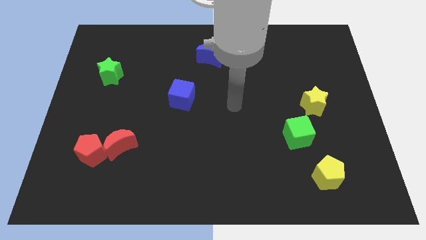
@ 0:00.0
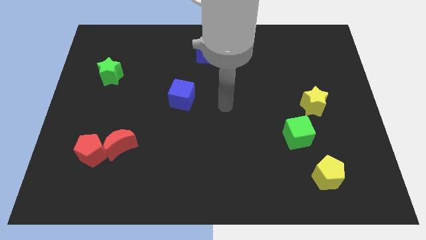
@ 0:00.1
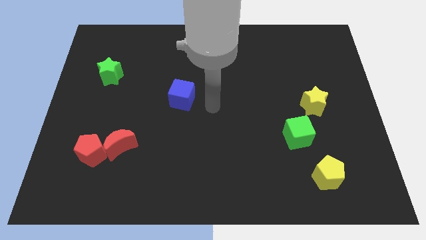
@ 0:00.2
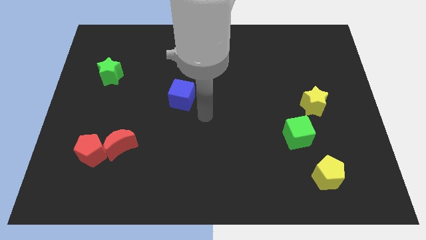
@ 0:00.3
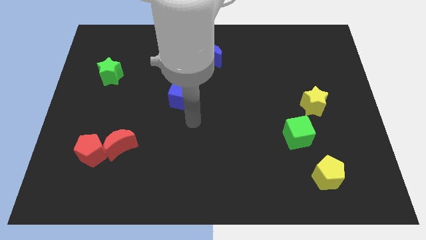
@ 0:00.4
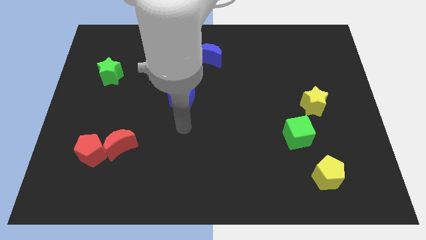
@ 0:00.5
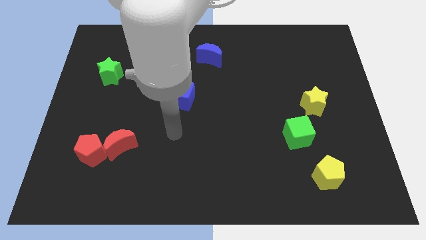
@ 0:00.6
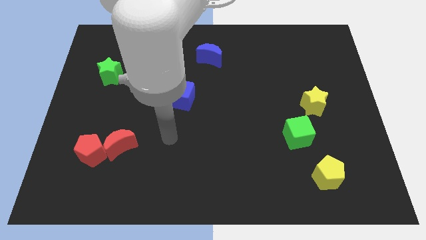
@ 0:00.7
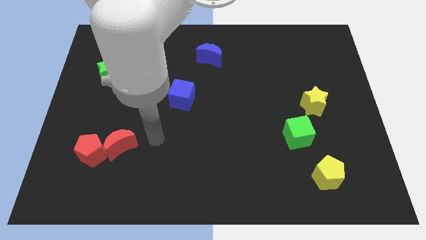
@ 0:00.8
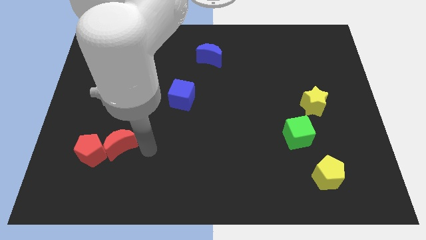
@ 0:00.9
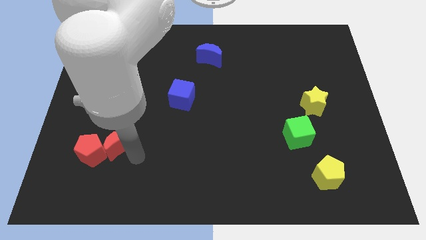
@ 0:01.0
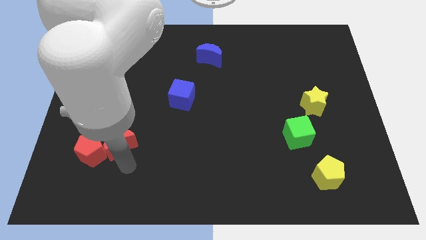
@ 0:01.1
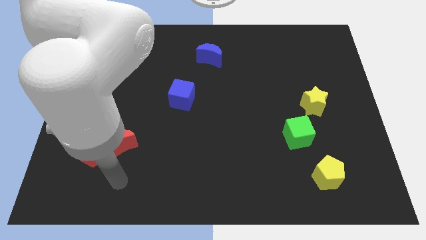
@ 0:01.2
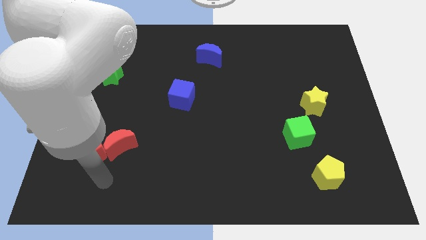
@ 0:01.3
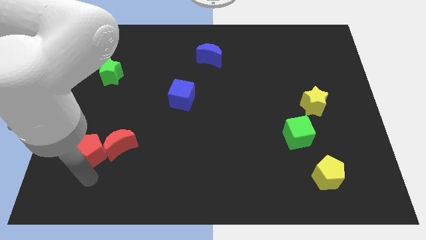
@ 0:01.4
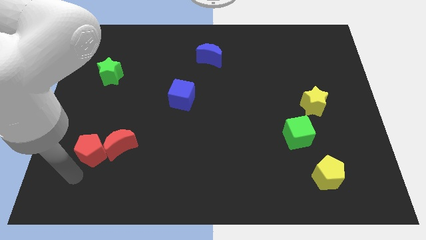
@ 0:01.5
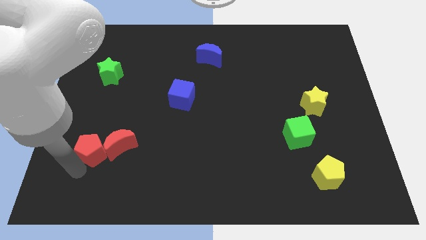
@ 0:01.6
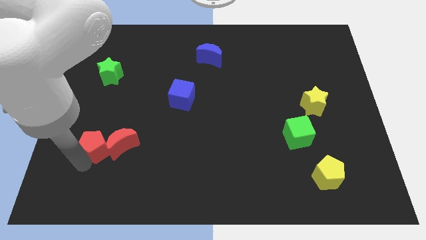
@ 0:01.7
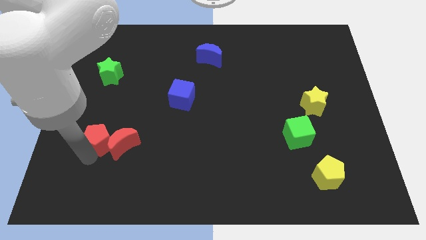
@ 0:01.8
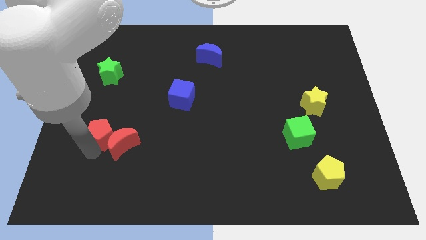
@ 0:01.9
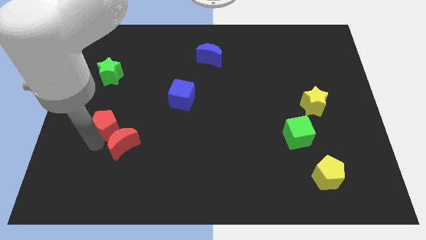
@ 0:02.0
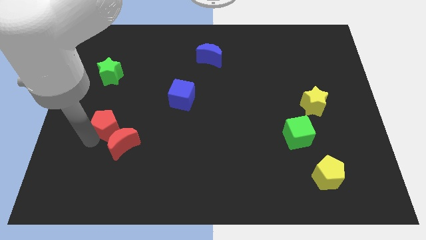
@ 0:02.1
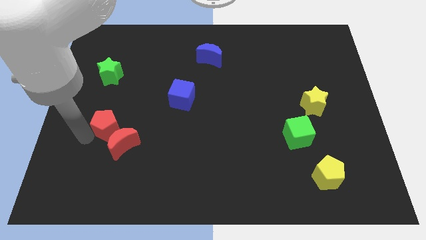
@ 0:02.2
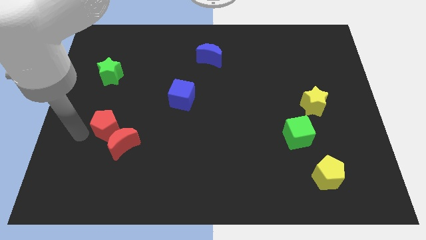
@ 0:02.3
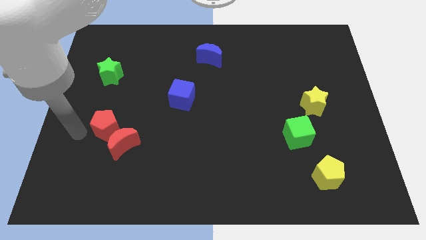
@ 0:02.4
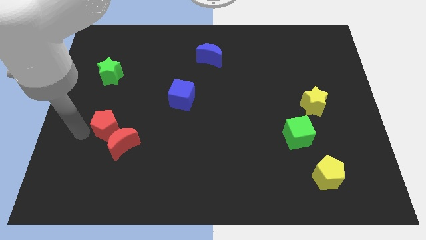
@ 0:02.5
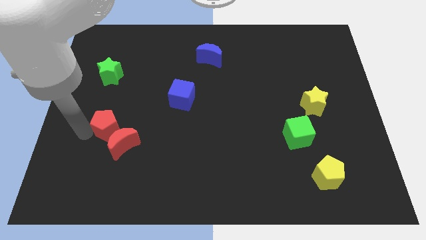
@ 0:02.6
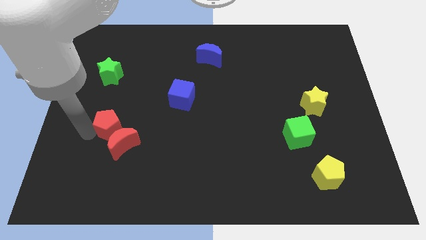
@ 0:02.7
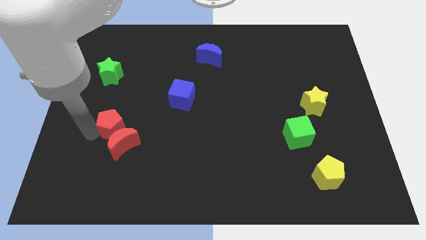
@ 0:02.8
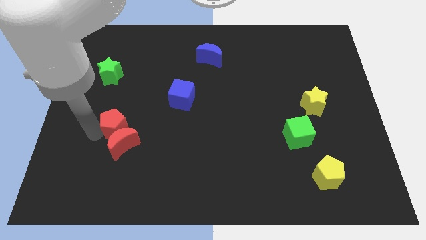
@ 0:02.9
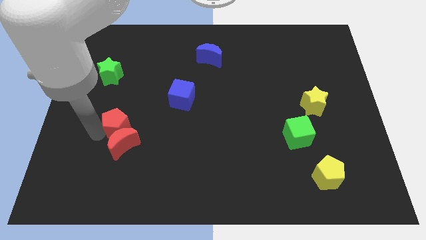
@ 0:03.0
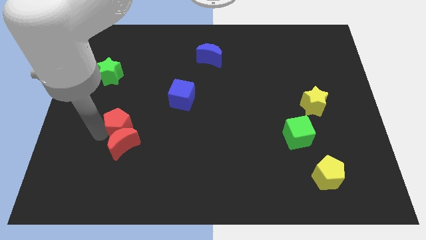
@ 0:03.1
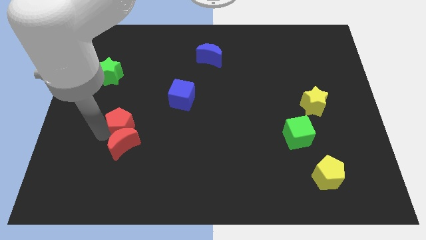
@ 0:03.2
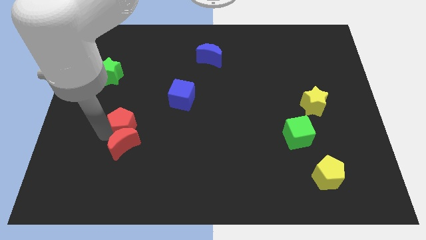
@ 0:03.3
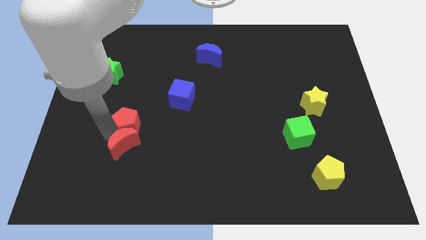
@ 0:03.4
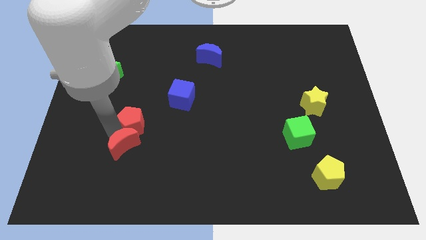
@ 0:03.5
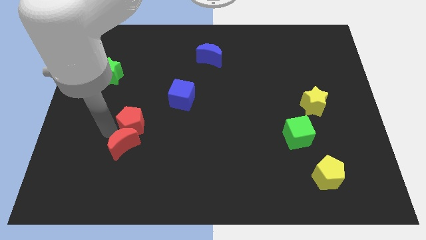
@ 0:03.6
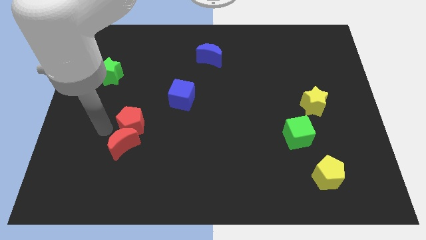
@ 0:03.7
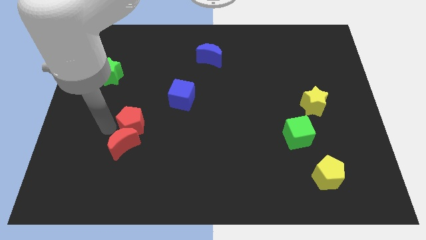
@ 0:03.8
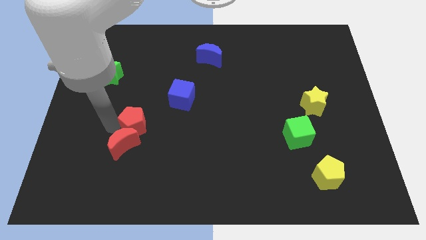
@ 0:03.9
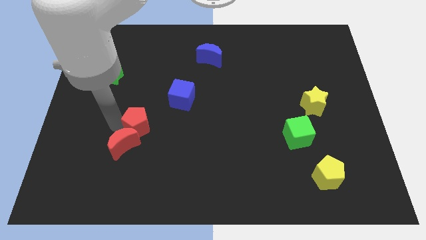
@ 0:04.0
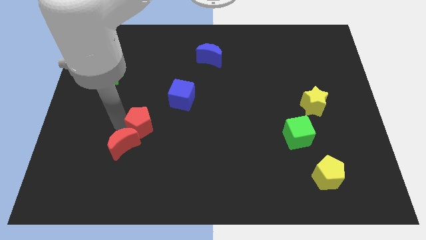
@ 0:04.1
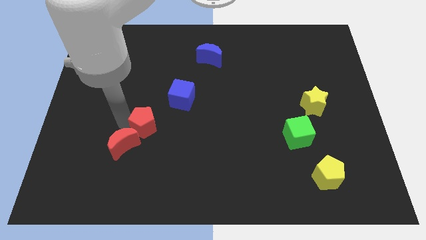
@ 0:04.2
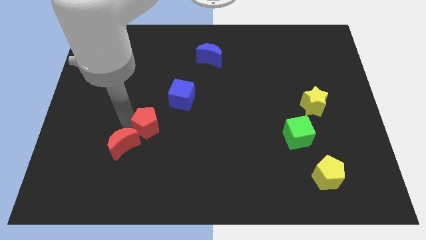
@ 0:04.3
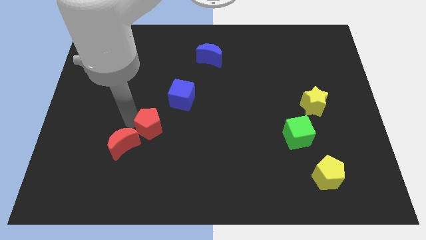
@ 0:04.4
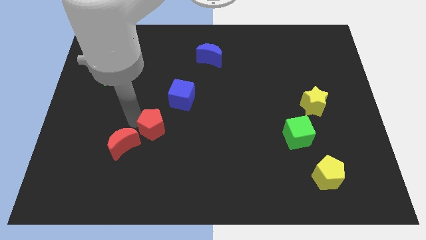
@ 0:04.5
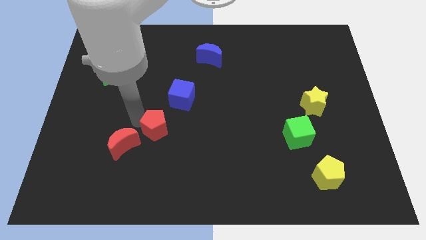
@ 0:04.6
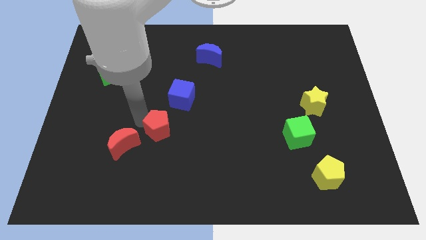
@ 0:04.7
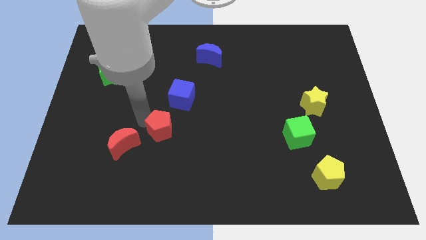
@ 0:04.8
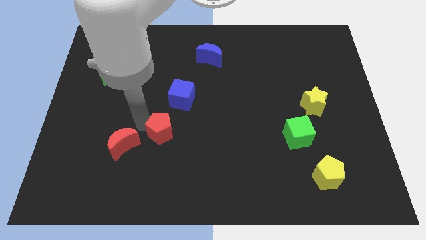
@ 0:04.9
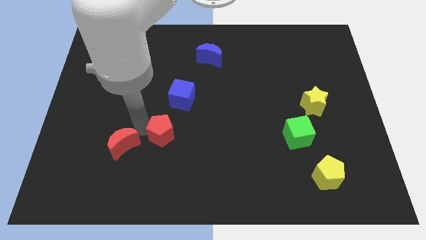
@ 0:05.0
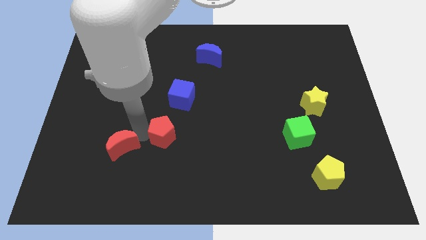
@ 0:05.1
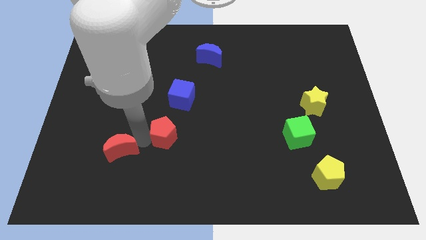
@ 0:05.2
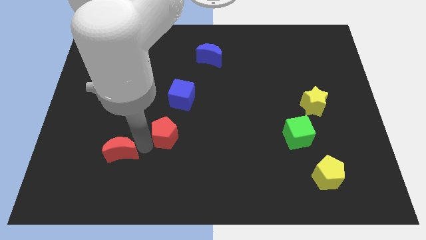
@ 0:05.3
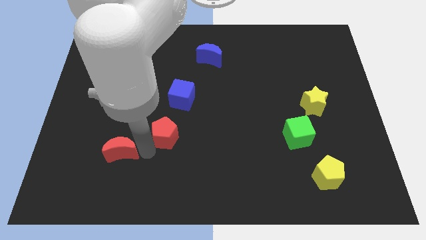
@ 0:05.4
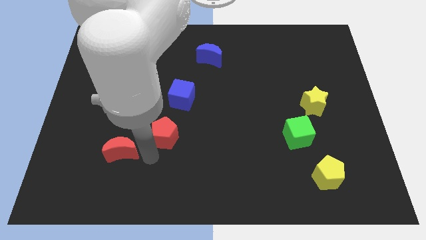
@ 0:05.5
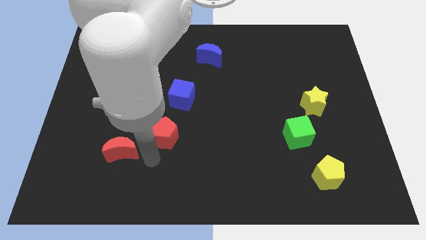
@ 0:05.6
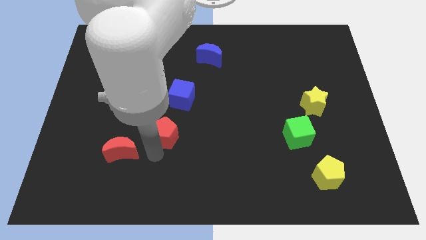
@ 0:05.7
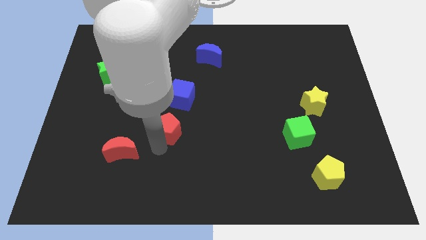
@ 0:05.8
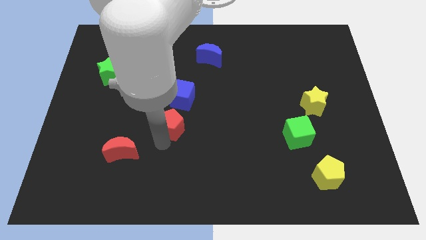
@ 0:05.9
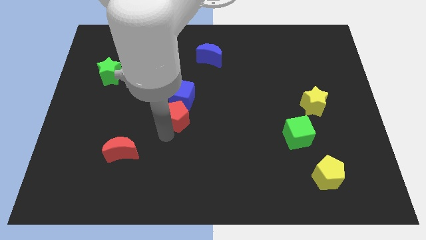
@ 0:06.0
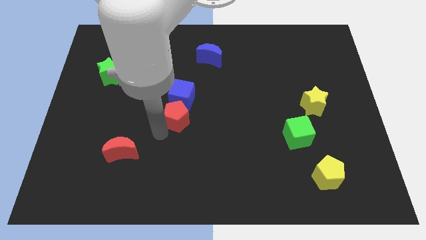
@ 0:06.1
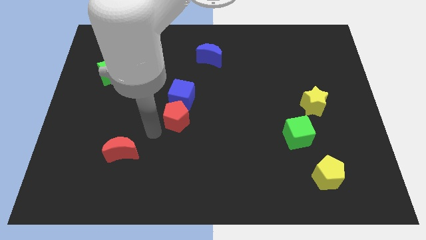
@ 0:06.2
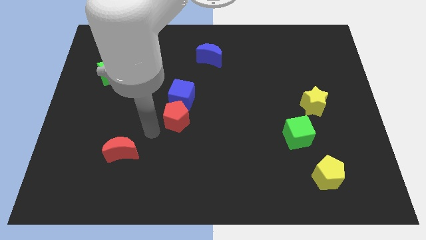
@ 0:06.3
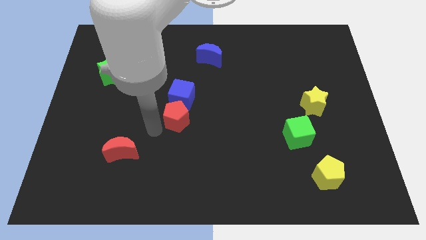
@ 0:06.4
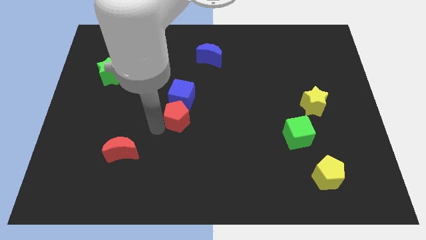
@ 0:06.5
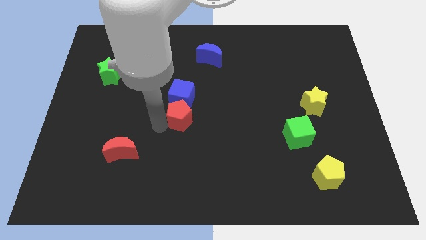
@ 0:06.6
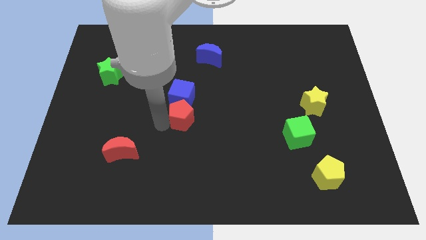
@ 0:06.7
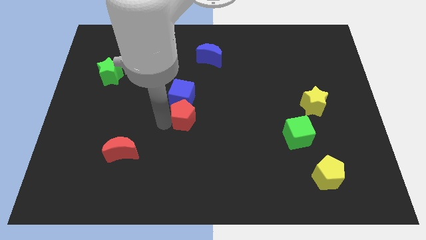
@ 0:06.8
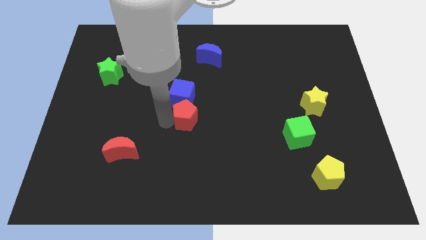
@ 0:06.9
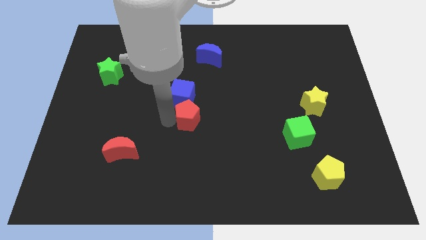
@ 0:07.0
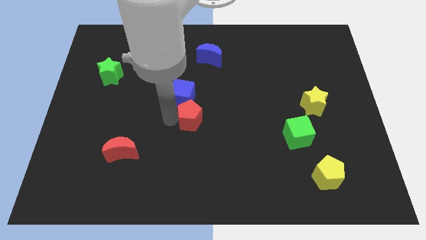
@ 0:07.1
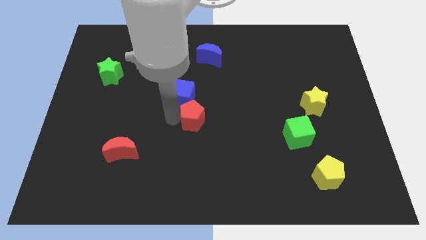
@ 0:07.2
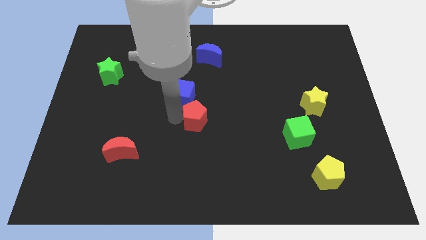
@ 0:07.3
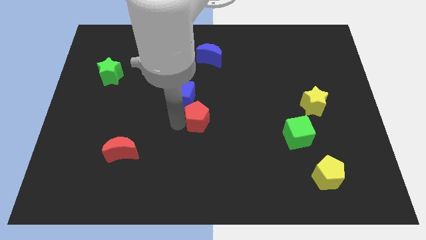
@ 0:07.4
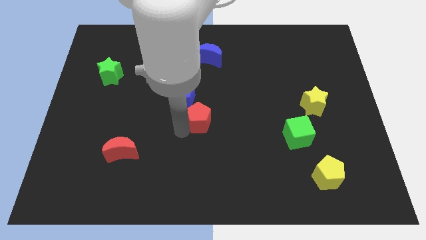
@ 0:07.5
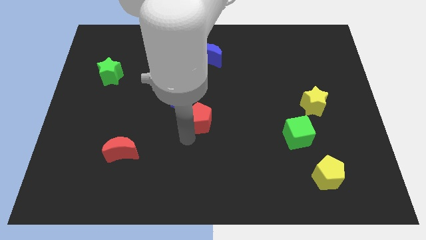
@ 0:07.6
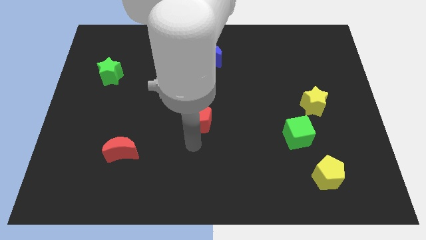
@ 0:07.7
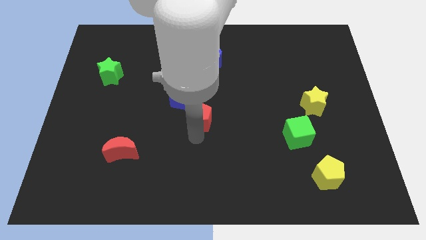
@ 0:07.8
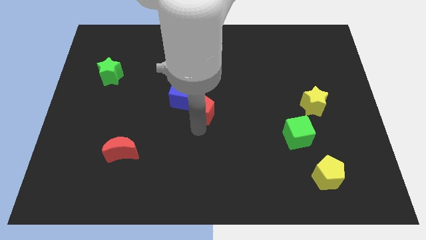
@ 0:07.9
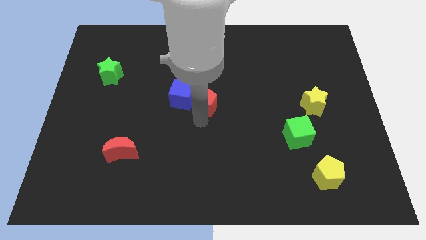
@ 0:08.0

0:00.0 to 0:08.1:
slide the red pentagon to the bottom side of the blue moon
